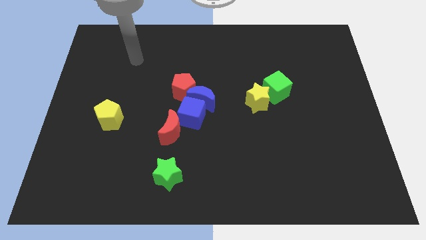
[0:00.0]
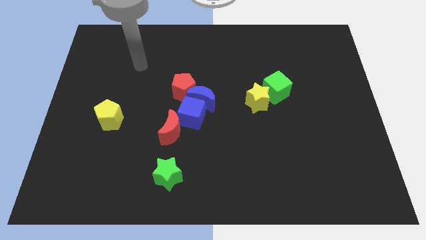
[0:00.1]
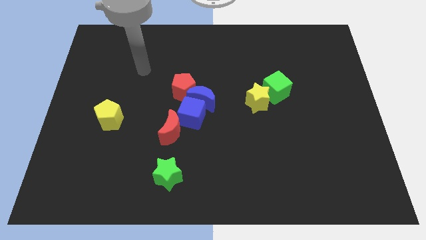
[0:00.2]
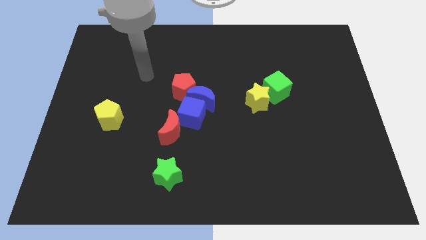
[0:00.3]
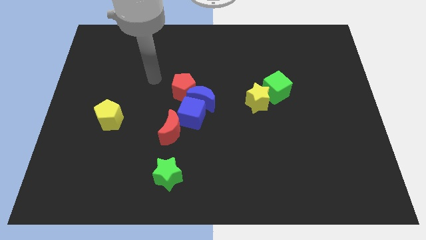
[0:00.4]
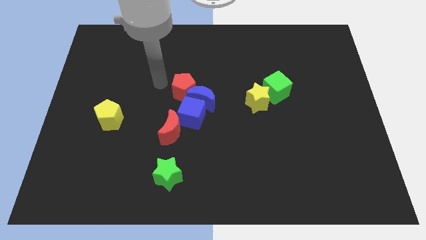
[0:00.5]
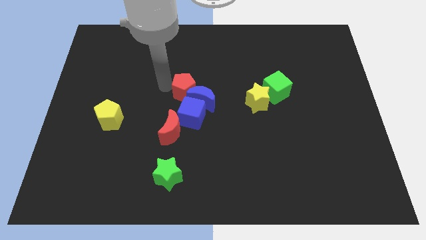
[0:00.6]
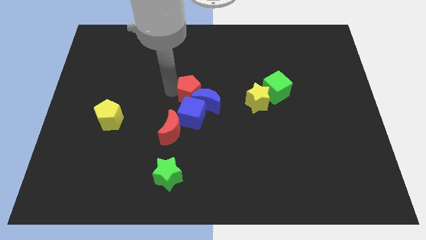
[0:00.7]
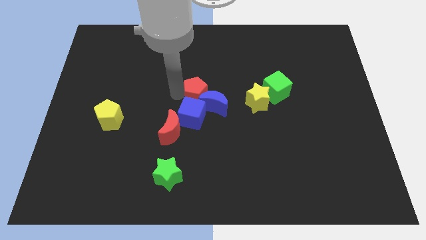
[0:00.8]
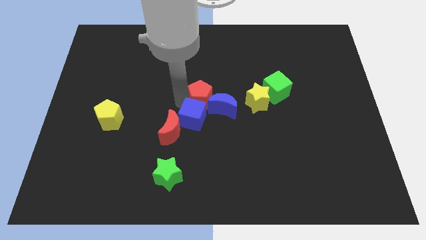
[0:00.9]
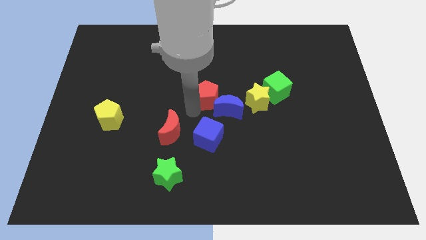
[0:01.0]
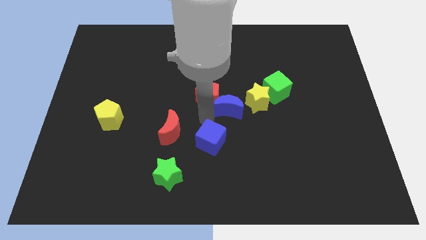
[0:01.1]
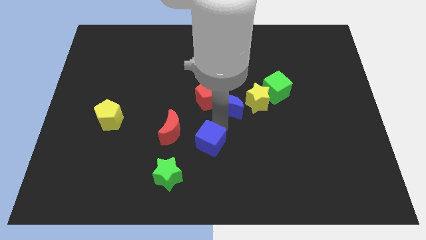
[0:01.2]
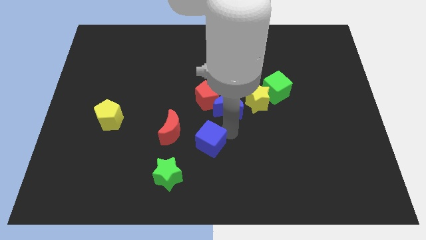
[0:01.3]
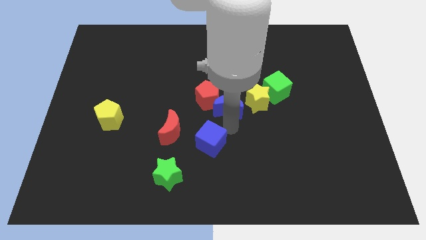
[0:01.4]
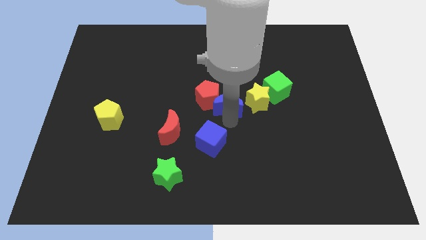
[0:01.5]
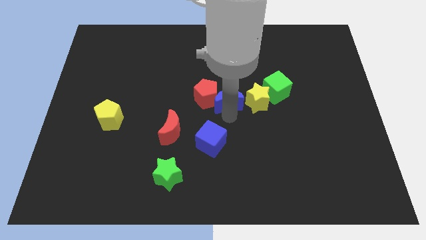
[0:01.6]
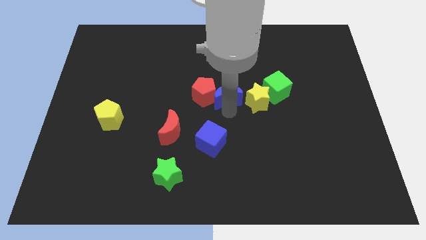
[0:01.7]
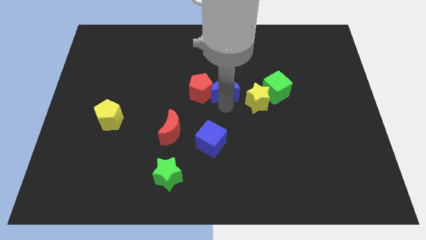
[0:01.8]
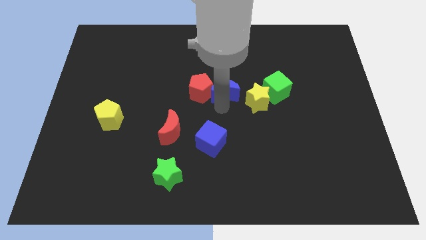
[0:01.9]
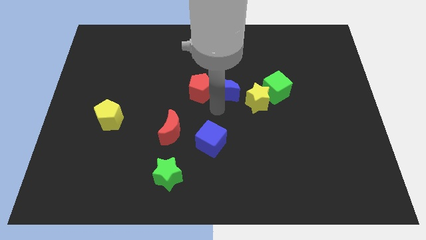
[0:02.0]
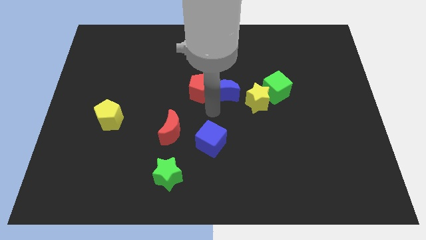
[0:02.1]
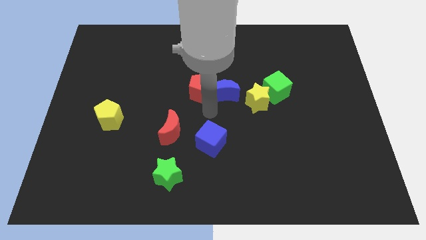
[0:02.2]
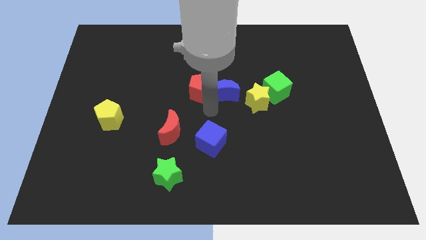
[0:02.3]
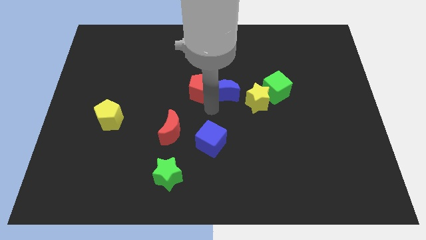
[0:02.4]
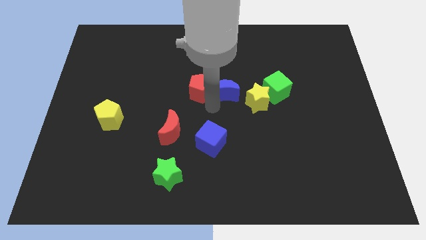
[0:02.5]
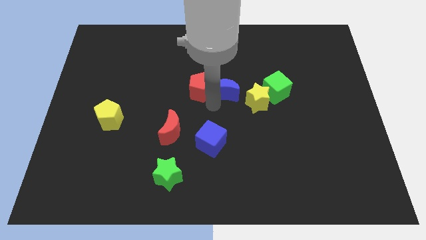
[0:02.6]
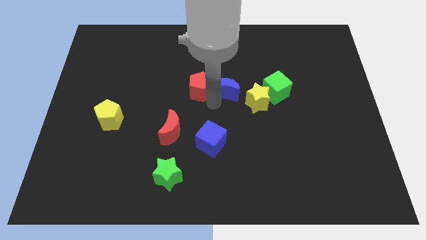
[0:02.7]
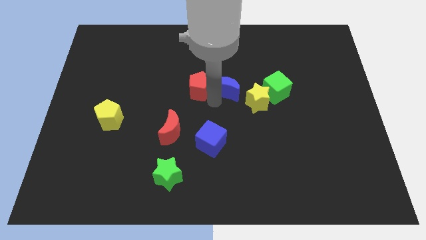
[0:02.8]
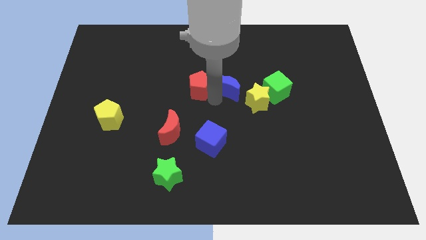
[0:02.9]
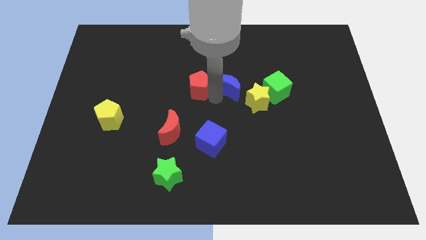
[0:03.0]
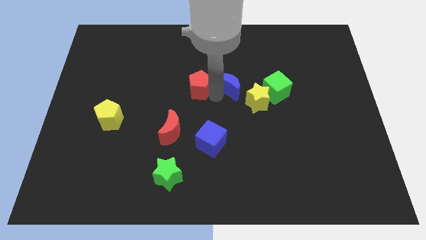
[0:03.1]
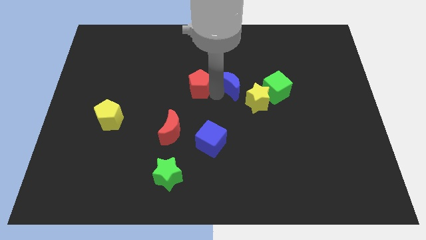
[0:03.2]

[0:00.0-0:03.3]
move the blue moon away from the blue cube and red pentagon

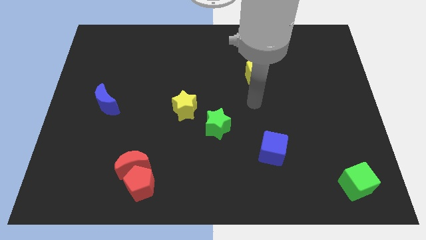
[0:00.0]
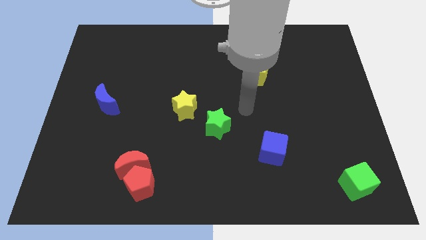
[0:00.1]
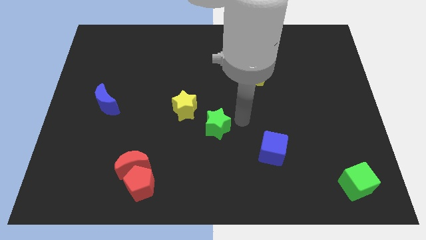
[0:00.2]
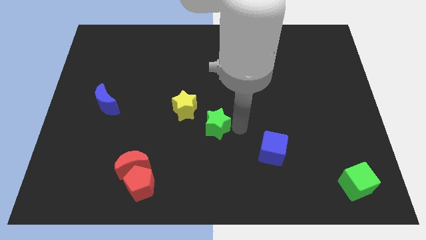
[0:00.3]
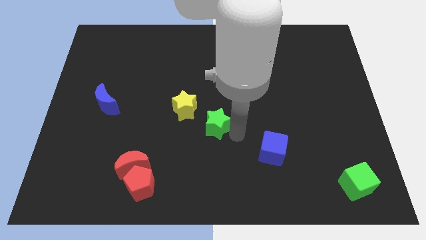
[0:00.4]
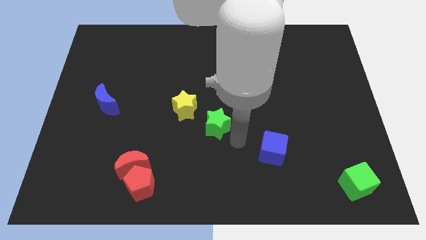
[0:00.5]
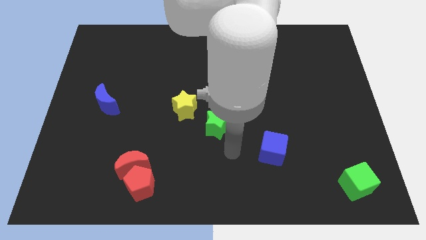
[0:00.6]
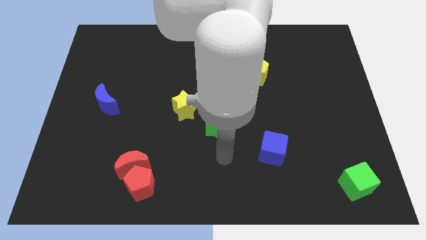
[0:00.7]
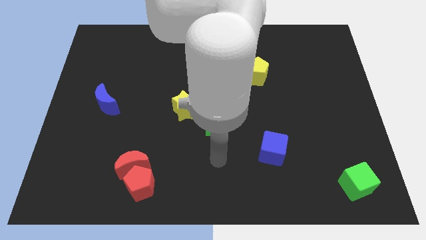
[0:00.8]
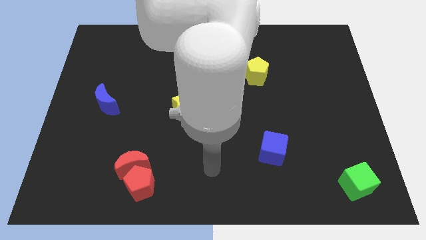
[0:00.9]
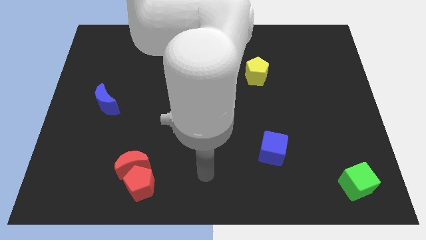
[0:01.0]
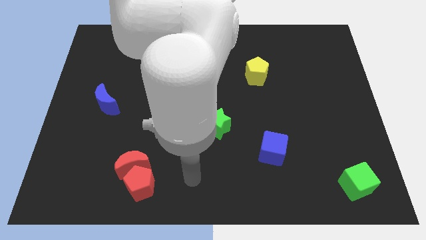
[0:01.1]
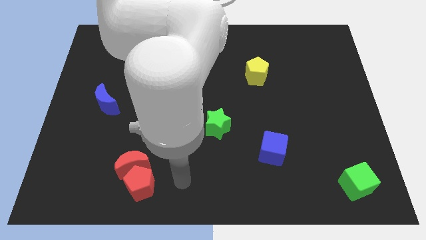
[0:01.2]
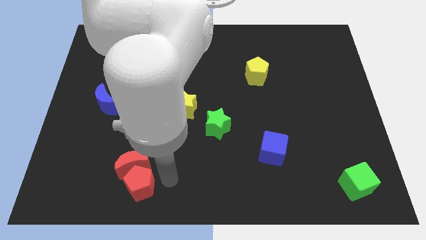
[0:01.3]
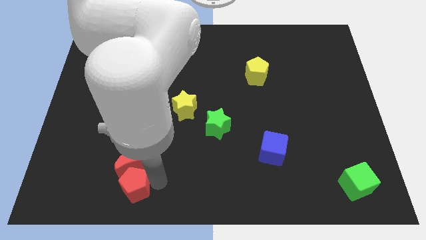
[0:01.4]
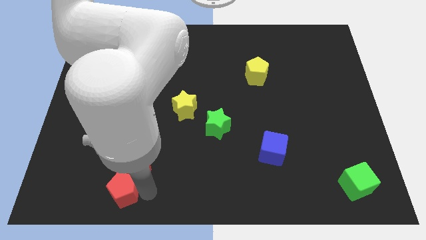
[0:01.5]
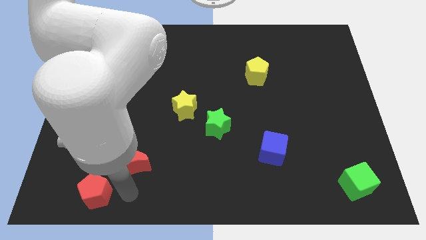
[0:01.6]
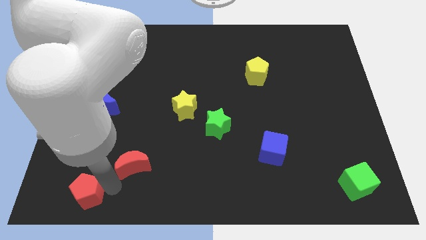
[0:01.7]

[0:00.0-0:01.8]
move the red moon away from the red pentagon

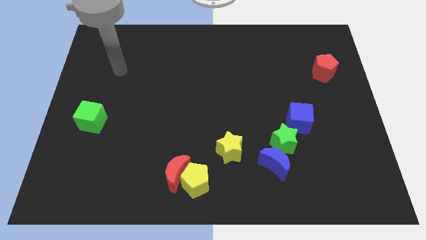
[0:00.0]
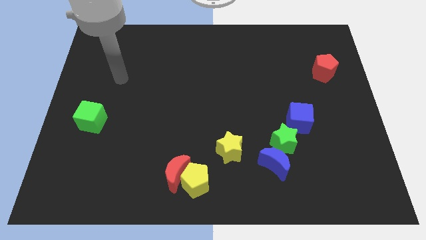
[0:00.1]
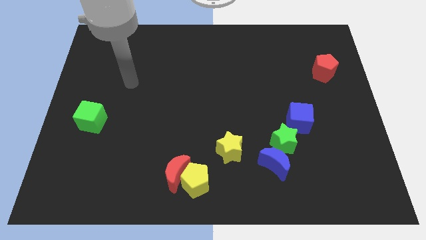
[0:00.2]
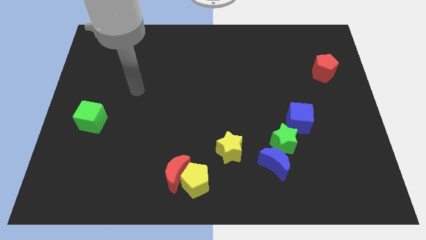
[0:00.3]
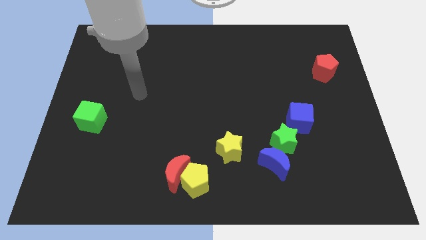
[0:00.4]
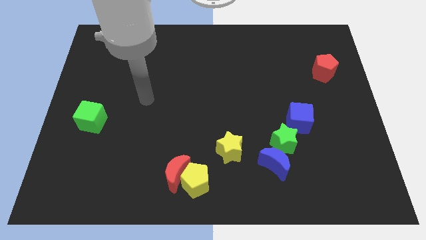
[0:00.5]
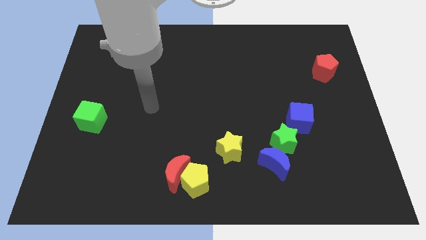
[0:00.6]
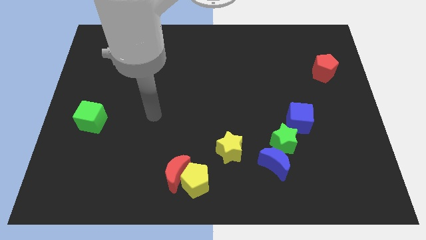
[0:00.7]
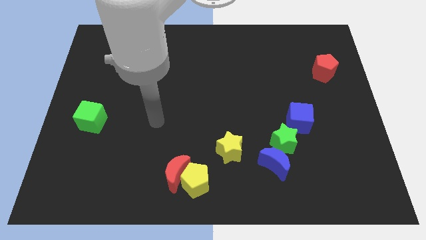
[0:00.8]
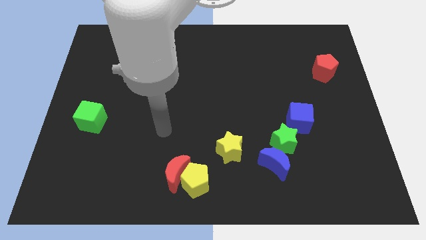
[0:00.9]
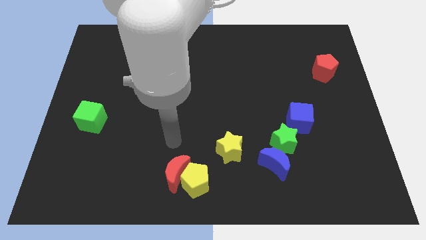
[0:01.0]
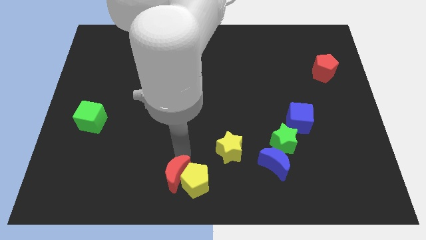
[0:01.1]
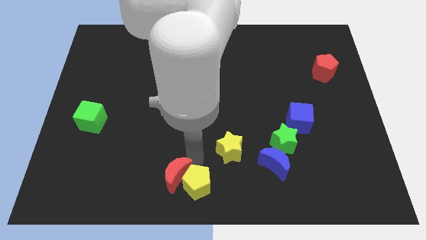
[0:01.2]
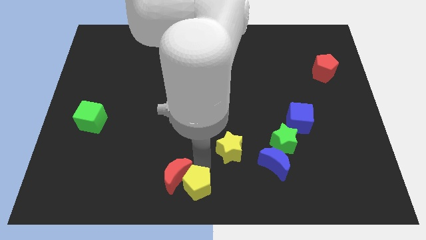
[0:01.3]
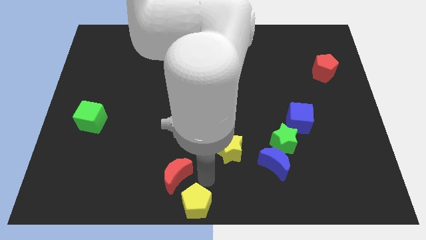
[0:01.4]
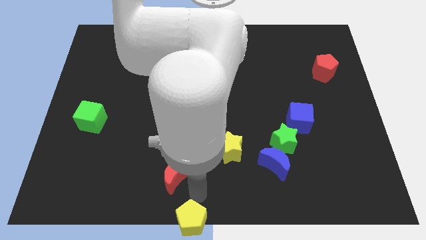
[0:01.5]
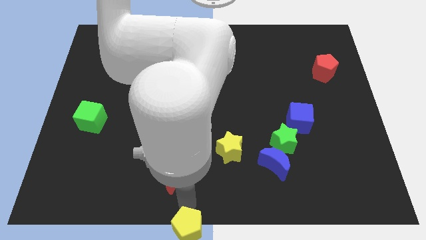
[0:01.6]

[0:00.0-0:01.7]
separate the red moon from the yellow pentagon

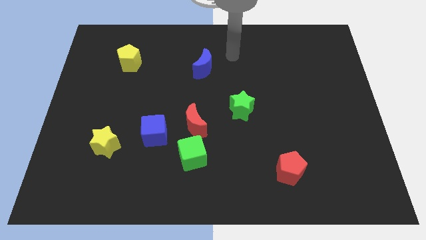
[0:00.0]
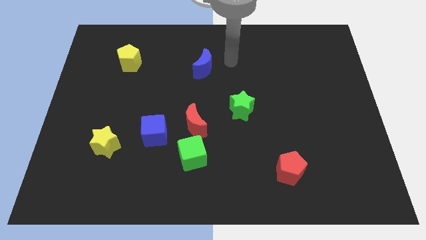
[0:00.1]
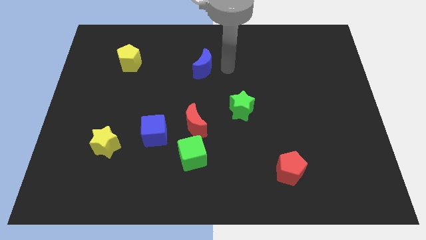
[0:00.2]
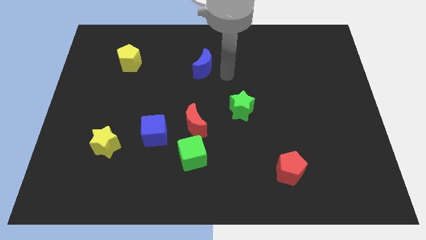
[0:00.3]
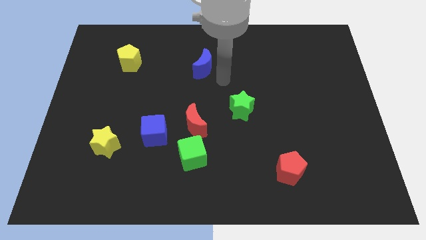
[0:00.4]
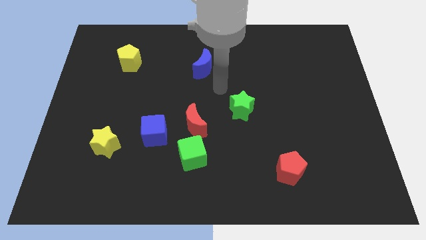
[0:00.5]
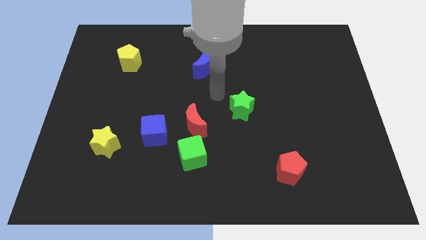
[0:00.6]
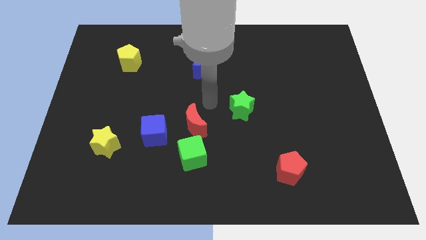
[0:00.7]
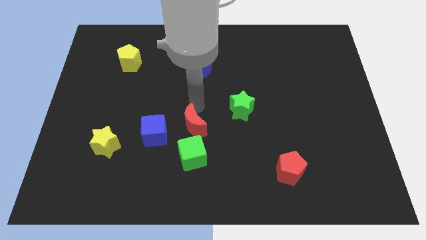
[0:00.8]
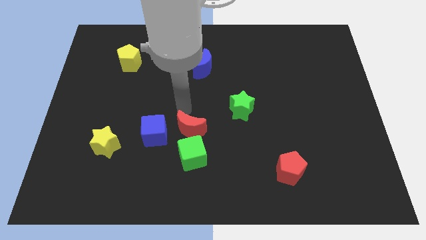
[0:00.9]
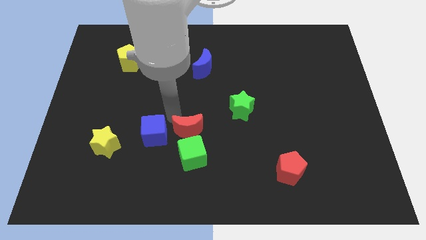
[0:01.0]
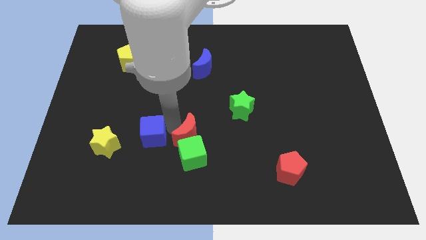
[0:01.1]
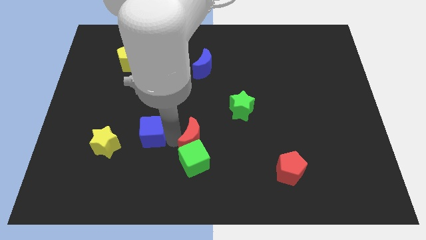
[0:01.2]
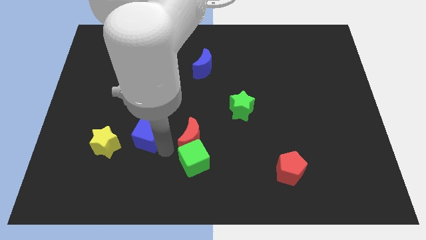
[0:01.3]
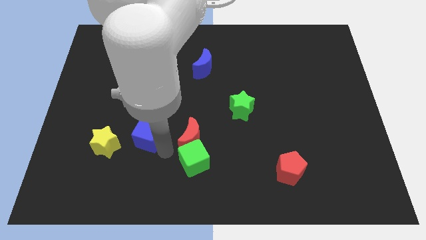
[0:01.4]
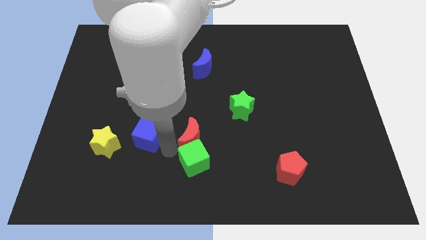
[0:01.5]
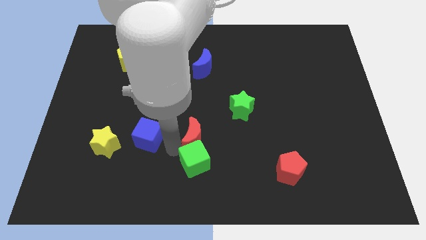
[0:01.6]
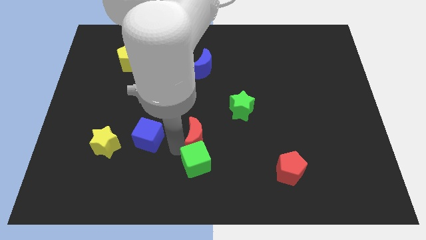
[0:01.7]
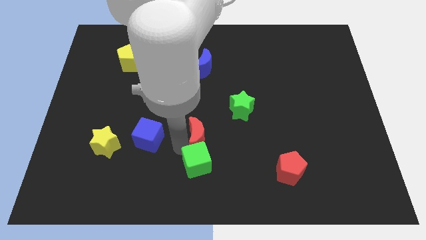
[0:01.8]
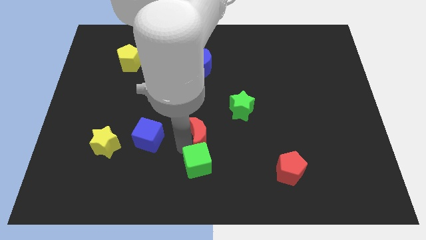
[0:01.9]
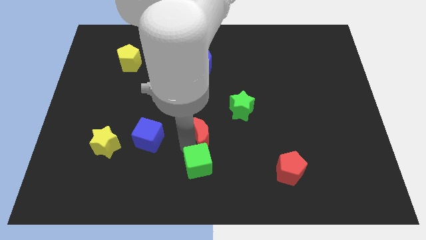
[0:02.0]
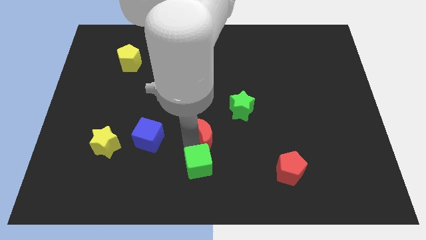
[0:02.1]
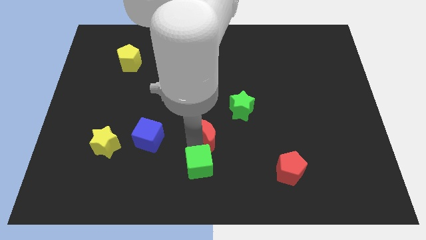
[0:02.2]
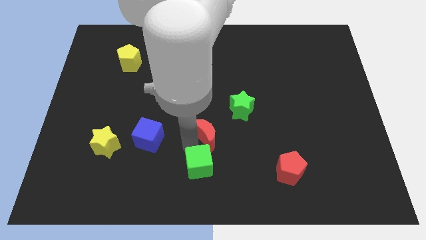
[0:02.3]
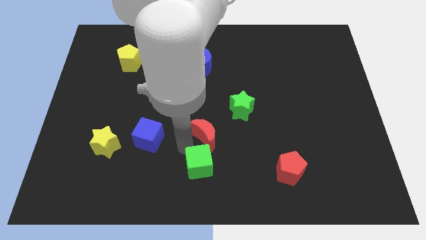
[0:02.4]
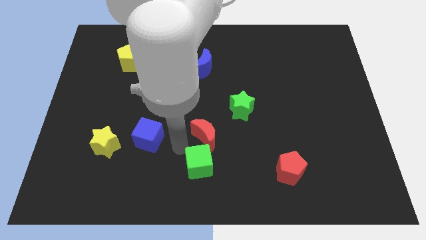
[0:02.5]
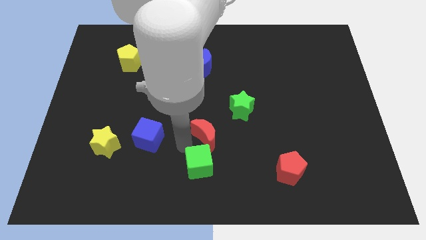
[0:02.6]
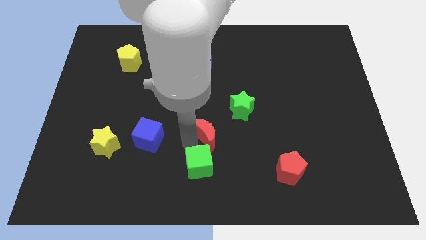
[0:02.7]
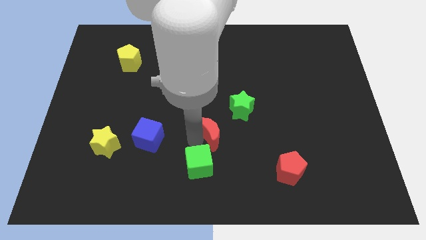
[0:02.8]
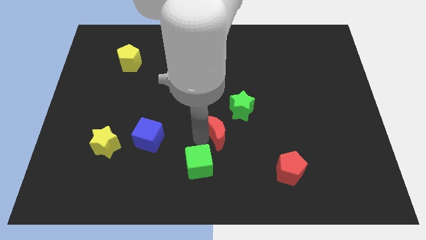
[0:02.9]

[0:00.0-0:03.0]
separate the red moon from the green cube and blue cube
